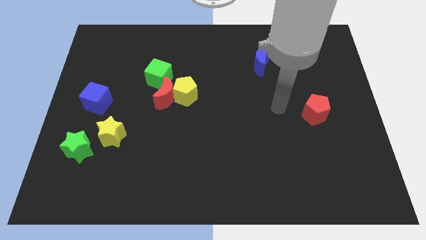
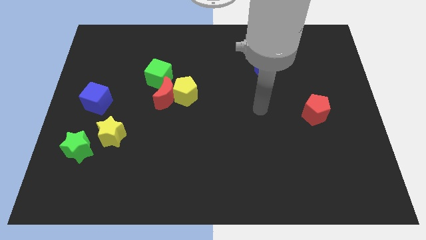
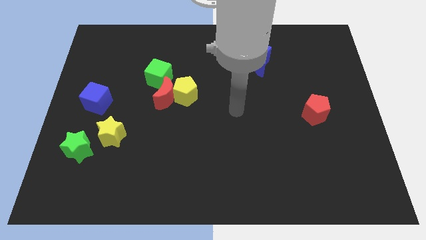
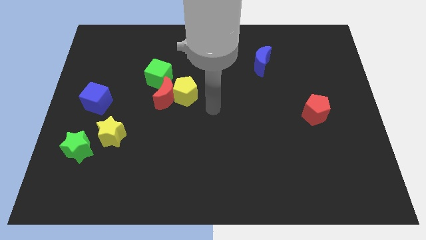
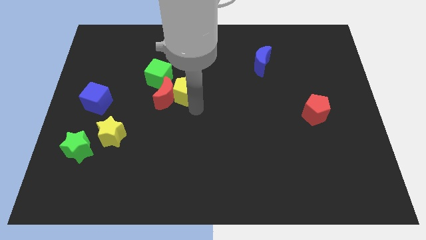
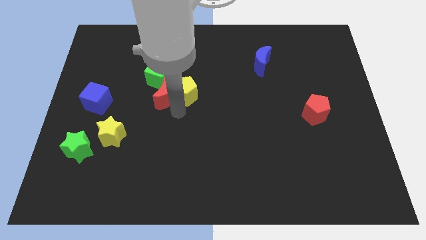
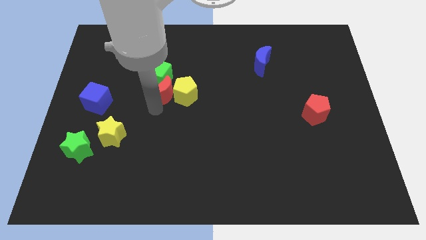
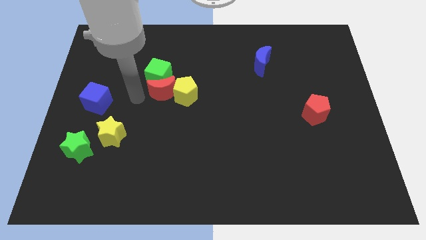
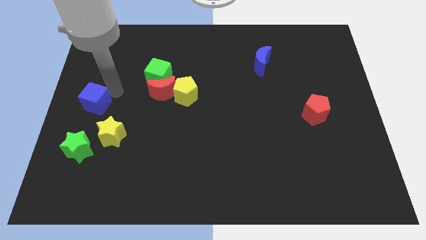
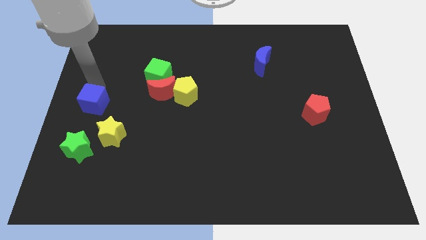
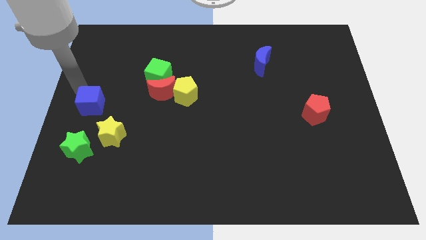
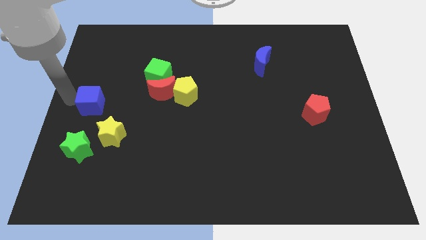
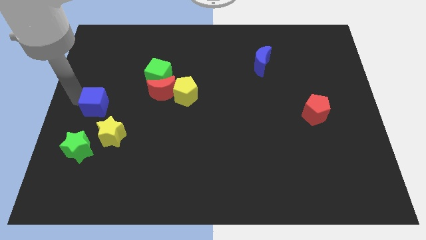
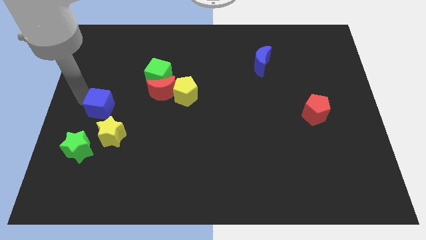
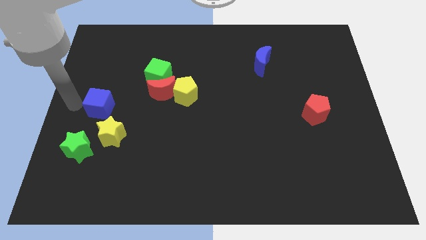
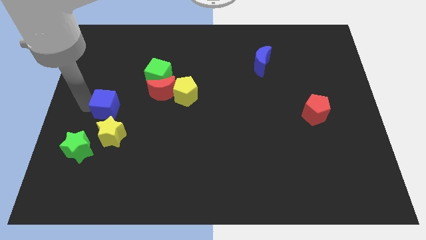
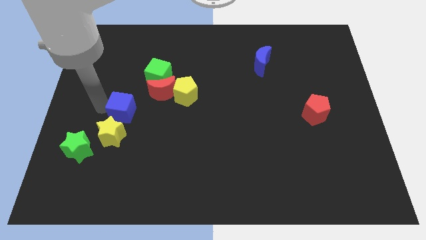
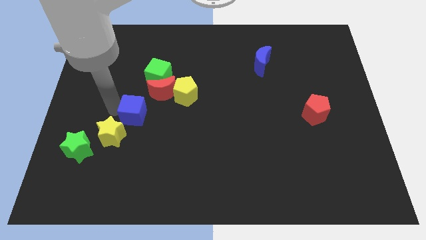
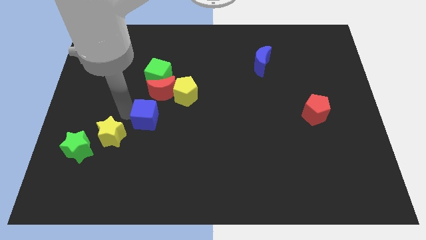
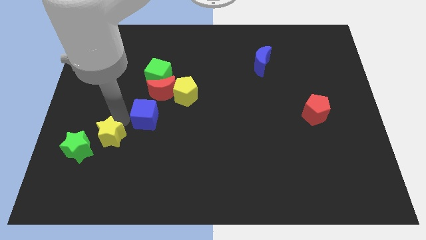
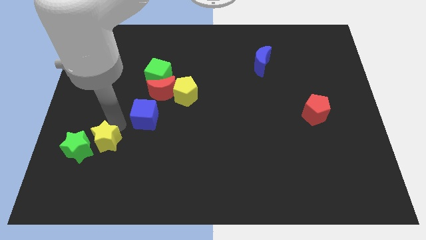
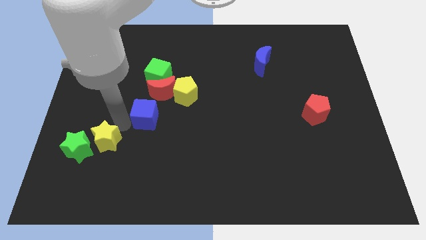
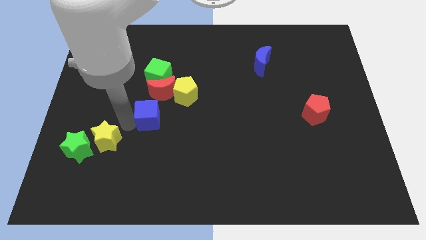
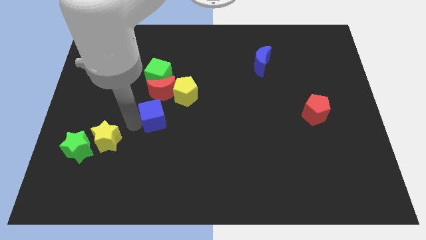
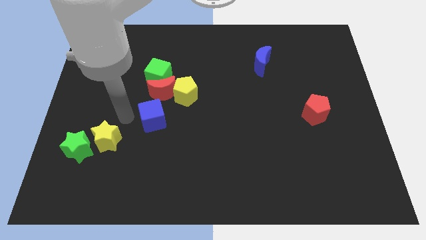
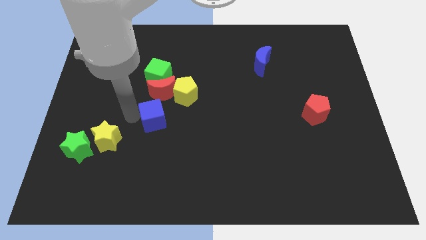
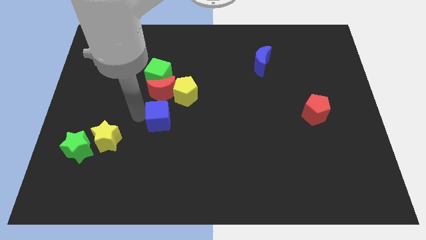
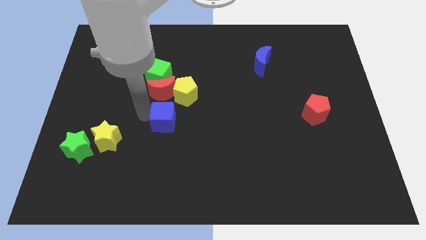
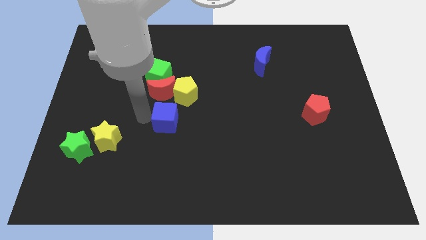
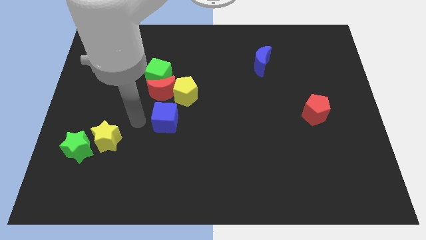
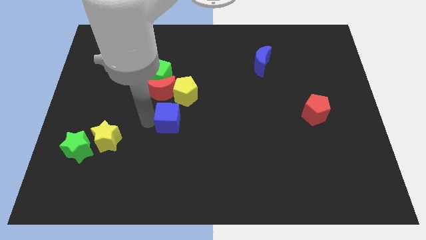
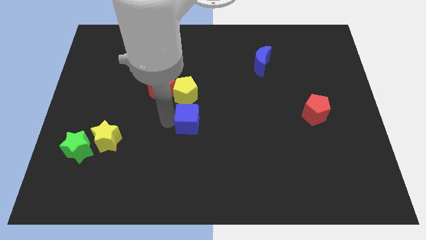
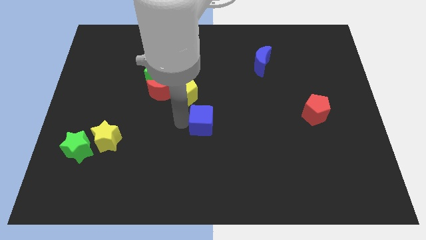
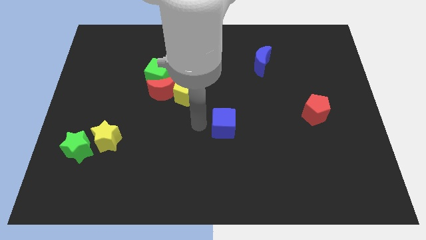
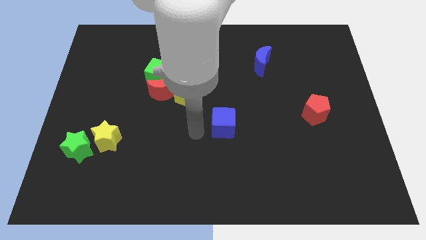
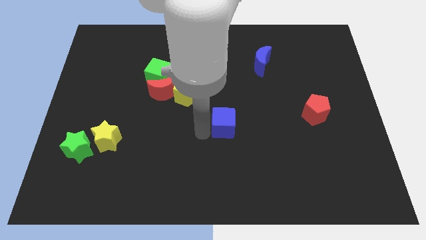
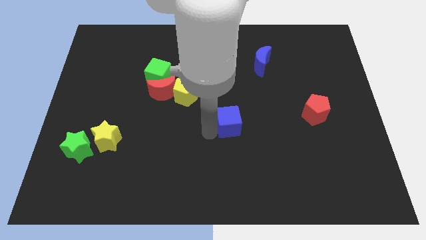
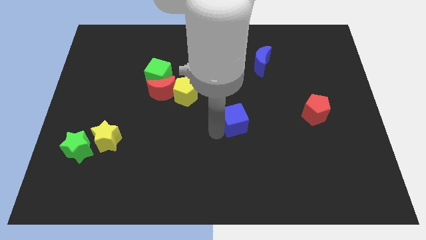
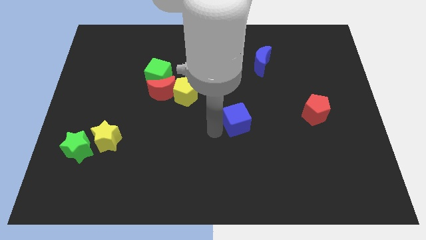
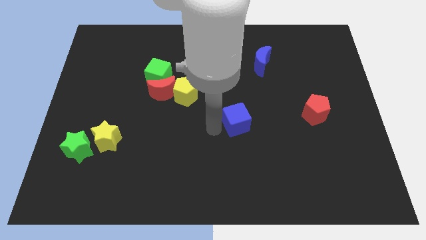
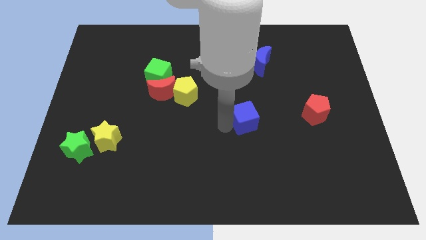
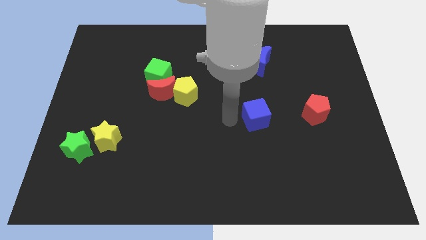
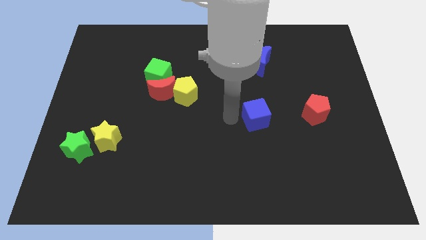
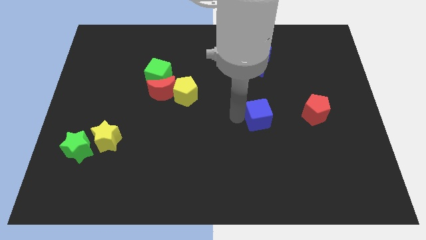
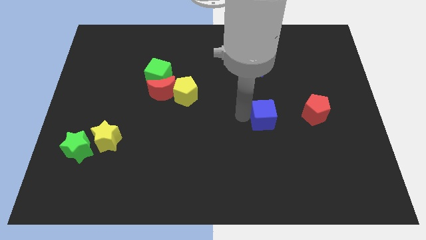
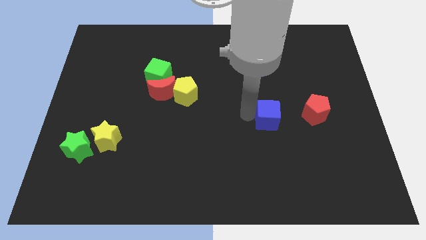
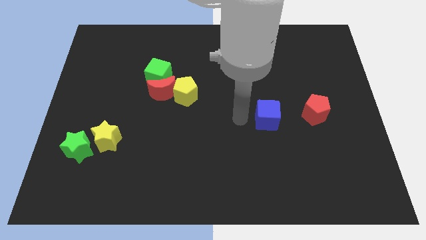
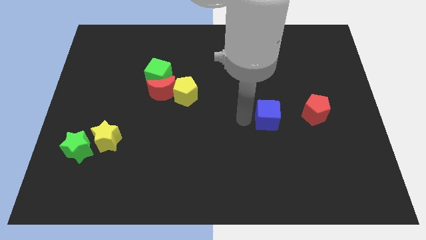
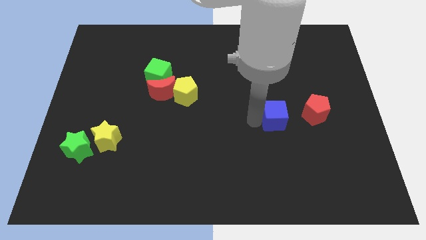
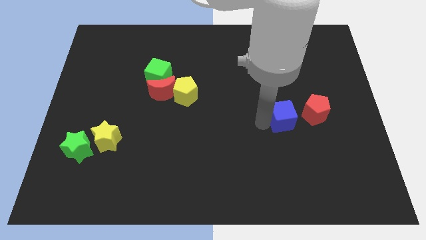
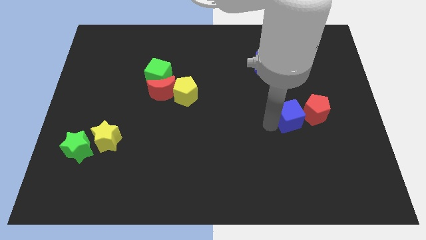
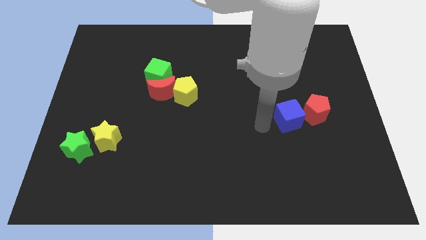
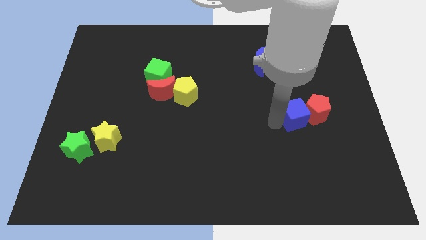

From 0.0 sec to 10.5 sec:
push the blue cube towards the red pentagon
